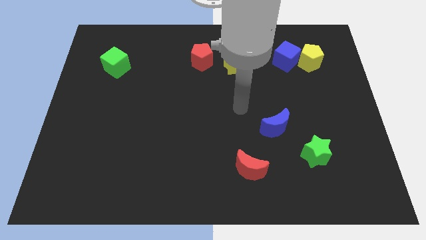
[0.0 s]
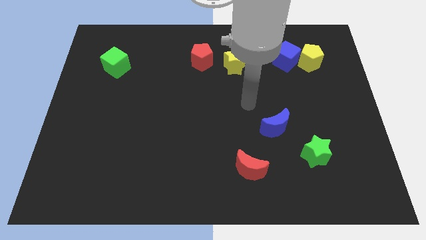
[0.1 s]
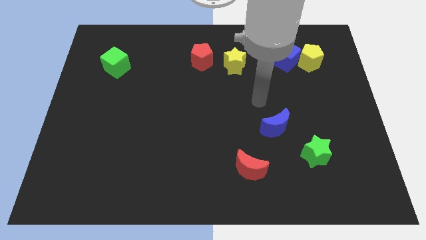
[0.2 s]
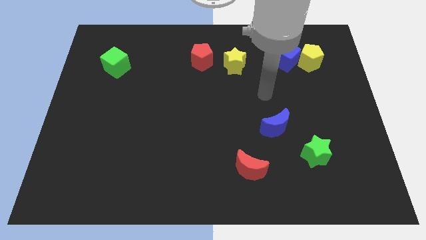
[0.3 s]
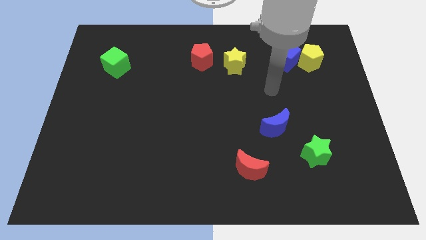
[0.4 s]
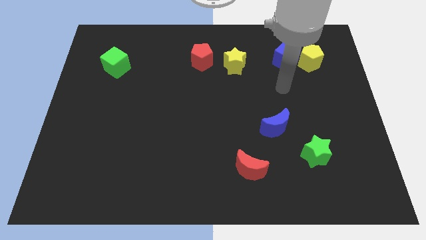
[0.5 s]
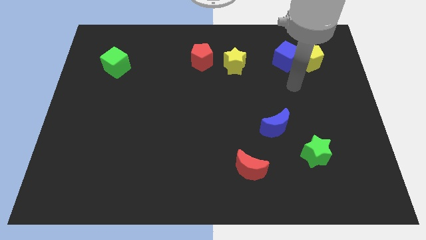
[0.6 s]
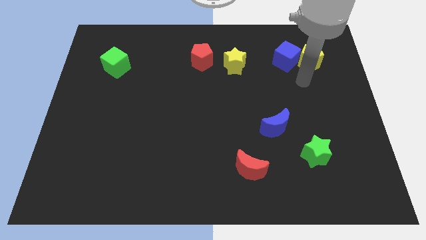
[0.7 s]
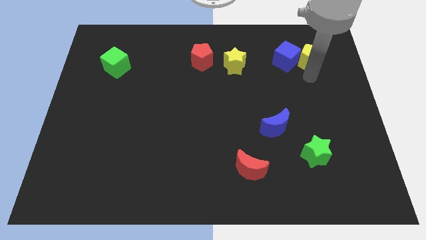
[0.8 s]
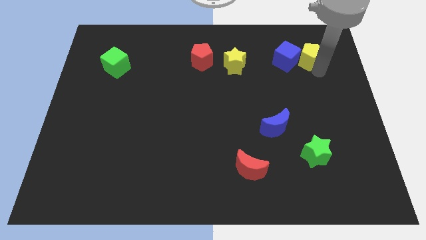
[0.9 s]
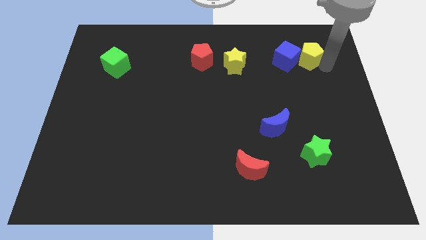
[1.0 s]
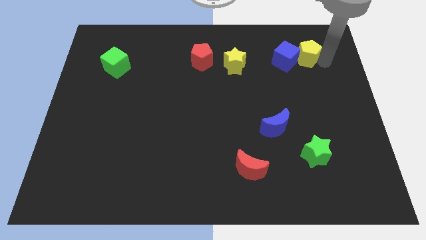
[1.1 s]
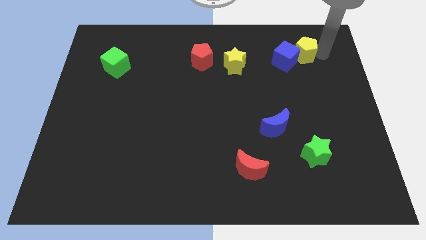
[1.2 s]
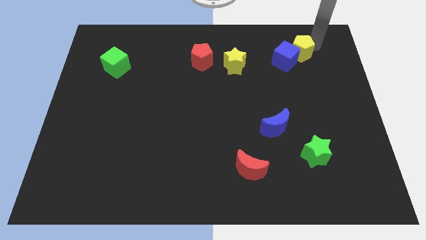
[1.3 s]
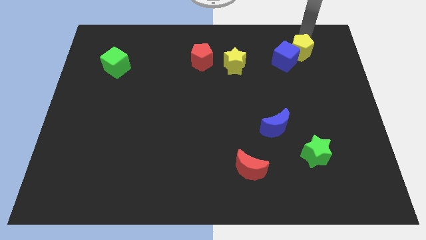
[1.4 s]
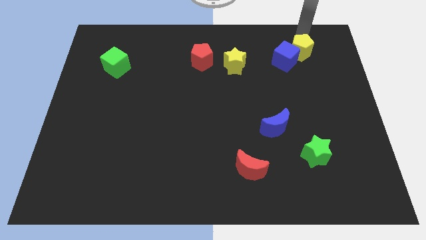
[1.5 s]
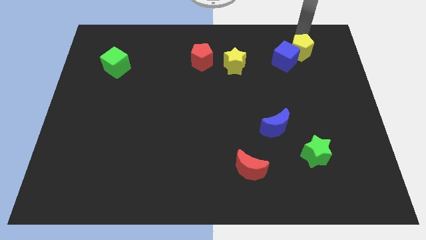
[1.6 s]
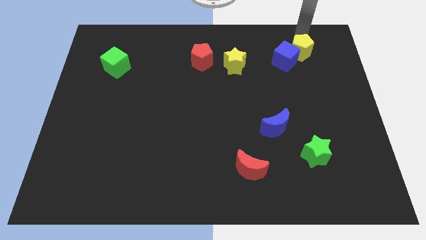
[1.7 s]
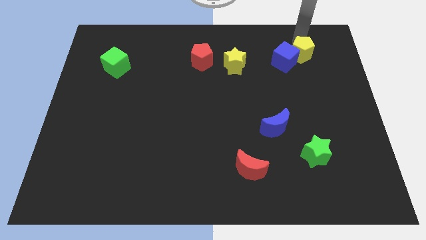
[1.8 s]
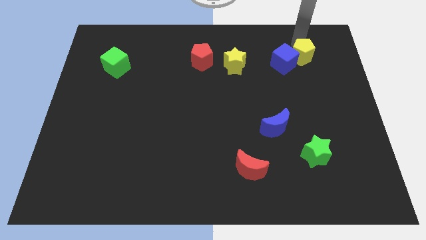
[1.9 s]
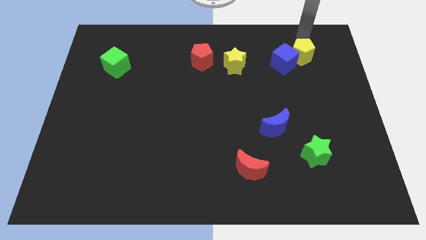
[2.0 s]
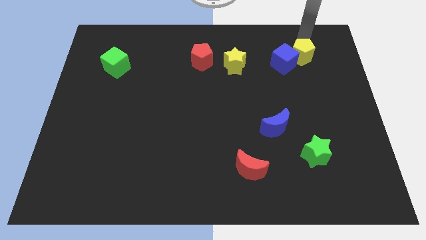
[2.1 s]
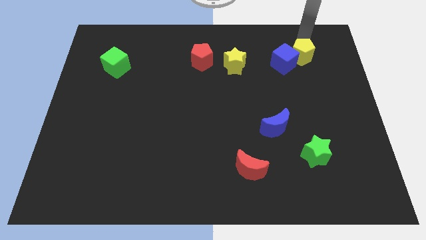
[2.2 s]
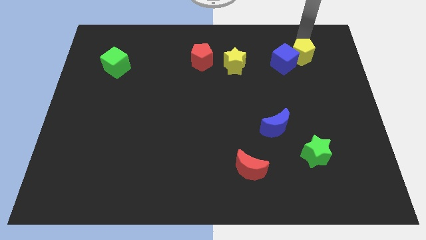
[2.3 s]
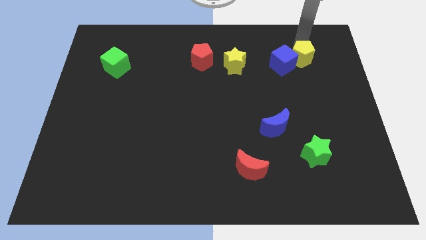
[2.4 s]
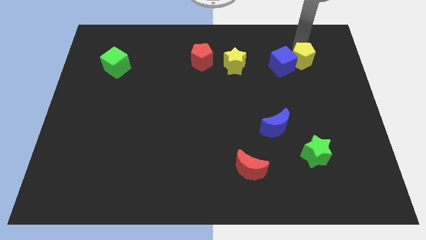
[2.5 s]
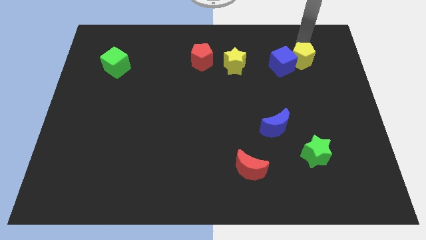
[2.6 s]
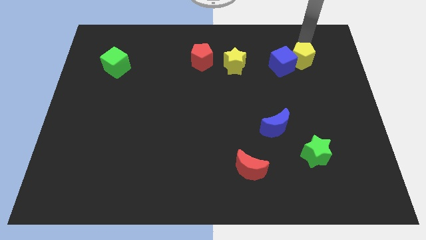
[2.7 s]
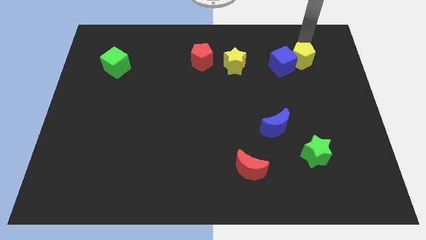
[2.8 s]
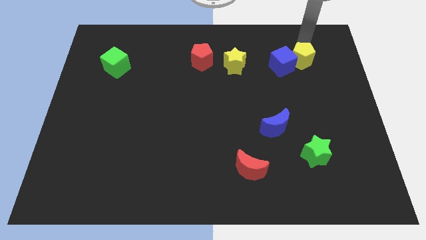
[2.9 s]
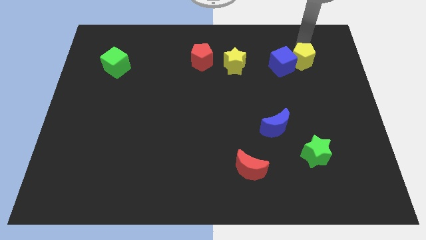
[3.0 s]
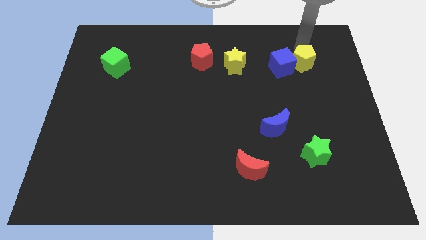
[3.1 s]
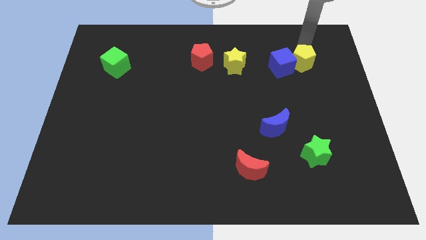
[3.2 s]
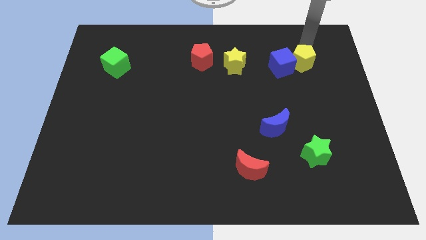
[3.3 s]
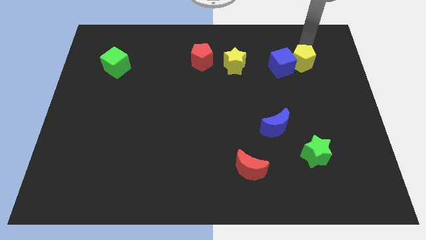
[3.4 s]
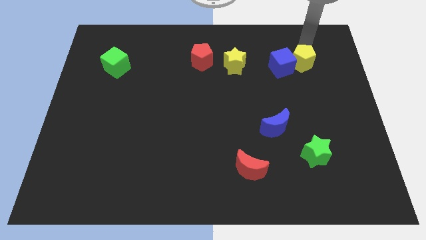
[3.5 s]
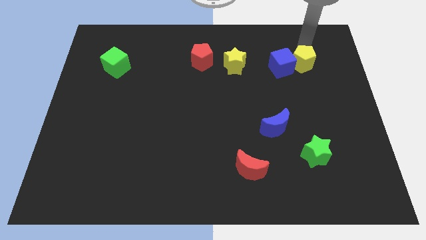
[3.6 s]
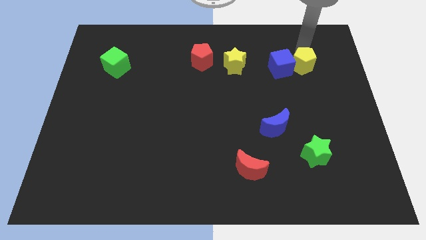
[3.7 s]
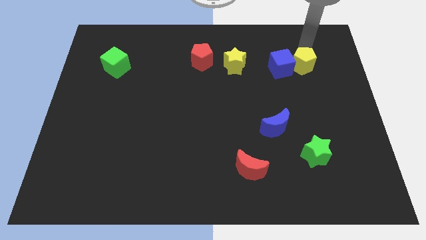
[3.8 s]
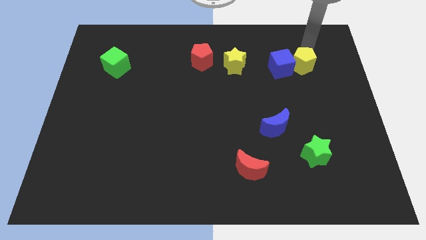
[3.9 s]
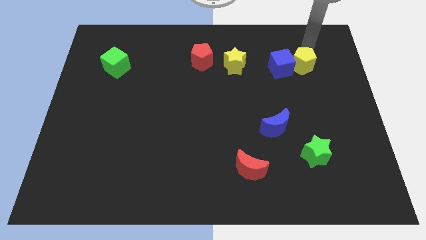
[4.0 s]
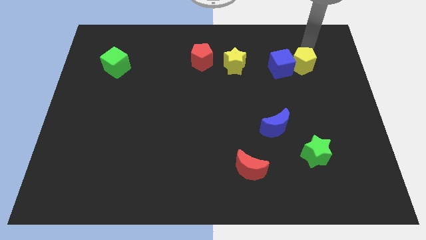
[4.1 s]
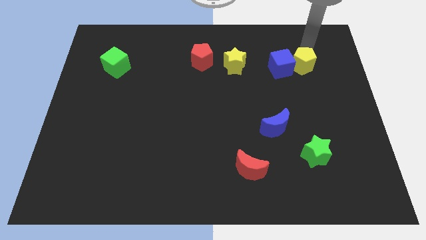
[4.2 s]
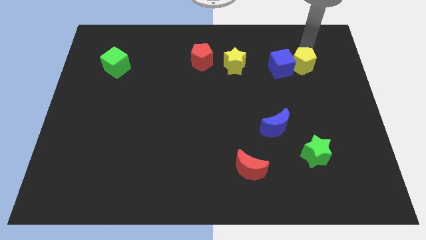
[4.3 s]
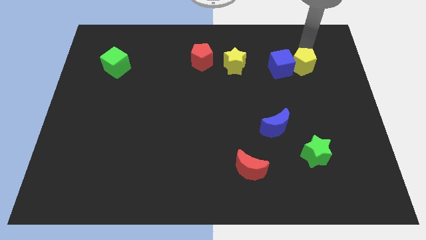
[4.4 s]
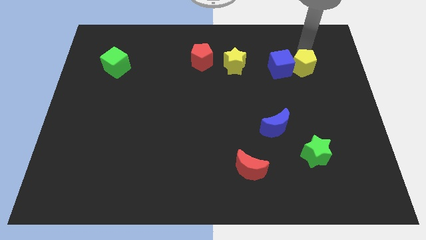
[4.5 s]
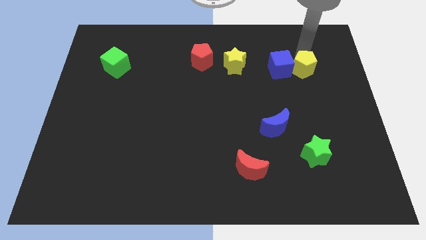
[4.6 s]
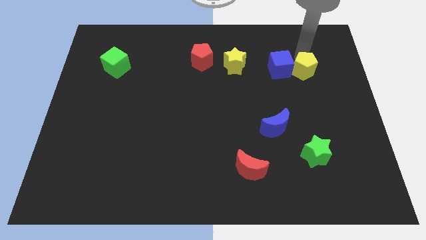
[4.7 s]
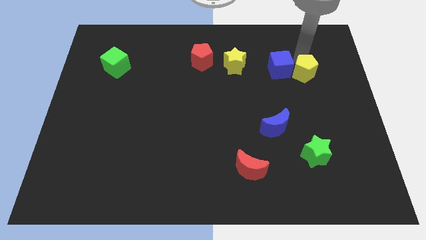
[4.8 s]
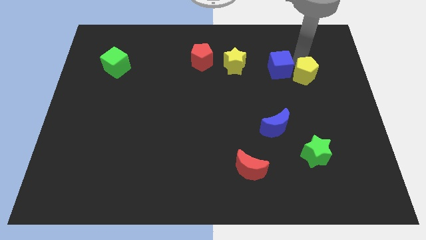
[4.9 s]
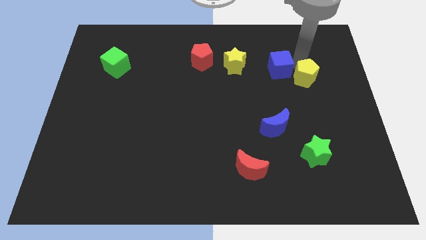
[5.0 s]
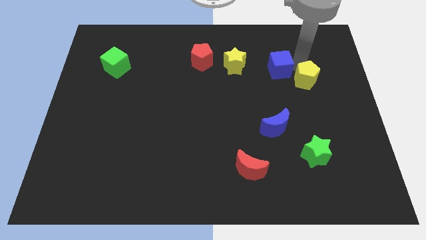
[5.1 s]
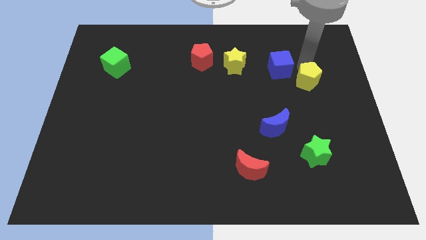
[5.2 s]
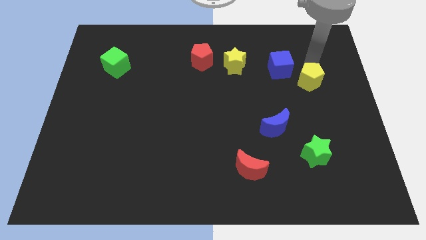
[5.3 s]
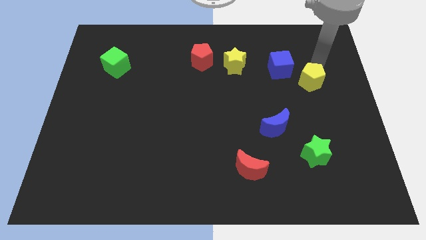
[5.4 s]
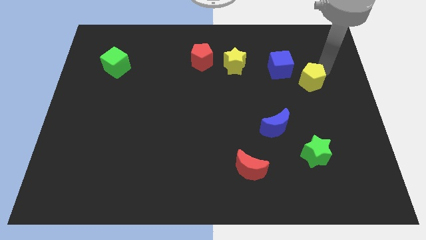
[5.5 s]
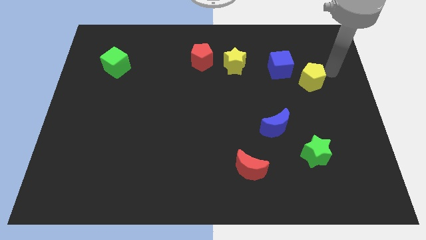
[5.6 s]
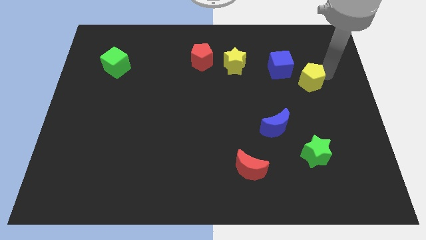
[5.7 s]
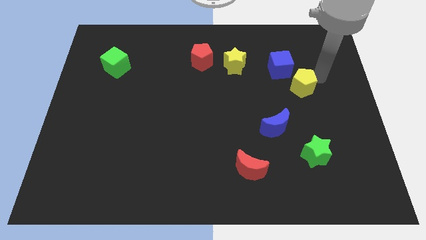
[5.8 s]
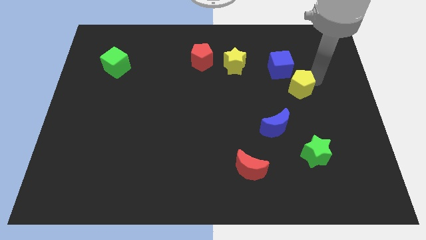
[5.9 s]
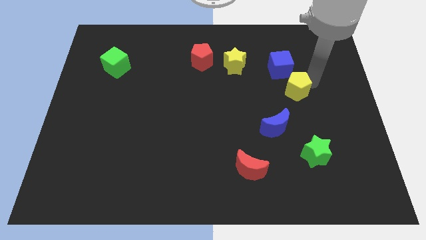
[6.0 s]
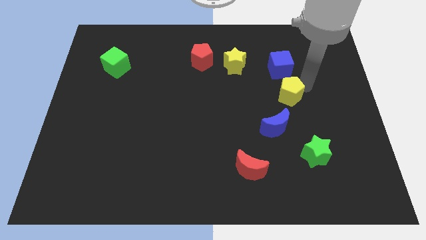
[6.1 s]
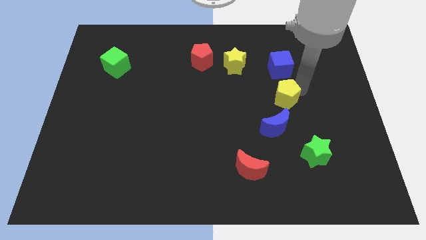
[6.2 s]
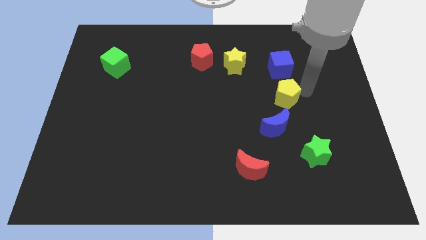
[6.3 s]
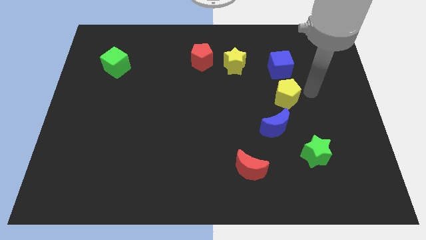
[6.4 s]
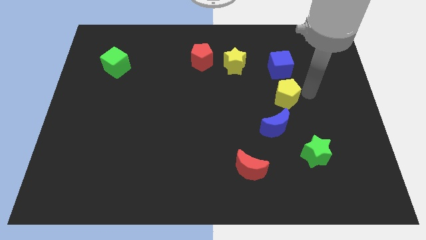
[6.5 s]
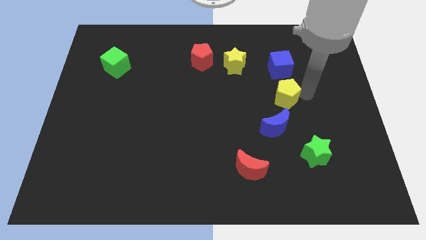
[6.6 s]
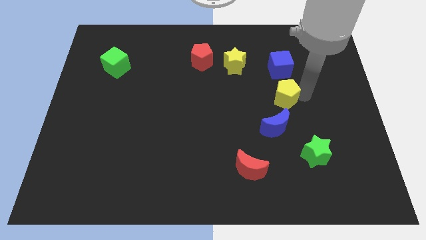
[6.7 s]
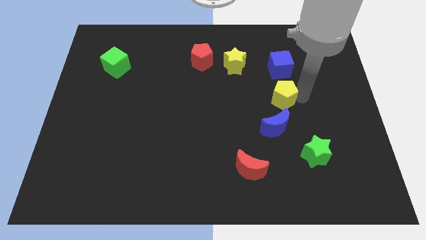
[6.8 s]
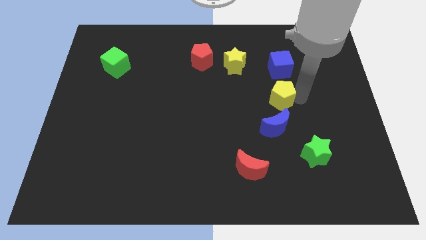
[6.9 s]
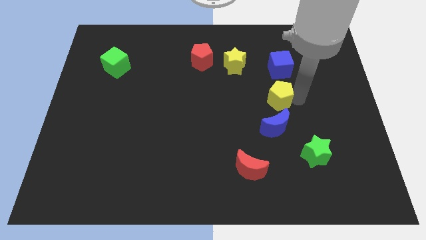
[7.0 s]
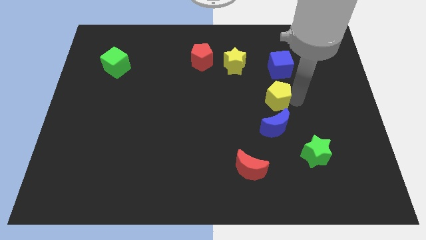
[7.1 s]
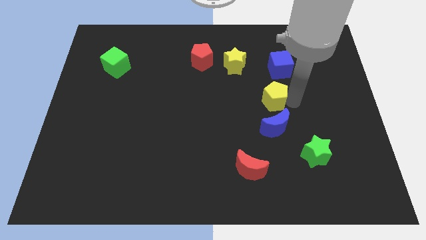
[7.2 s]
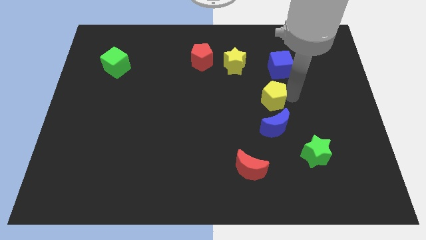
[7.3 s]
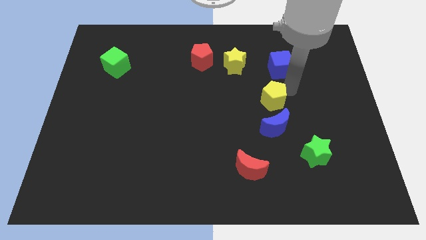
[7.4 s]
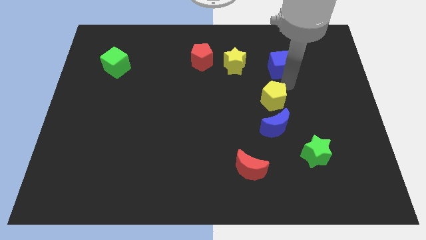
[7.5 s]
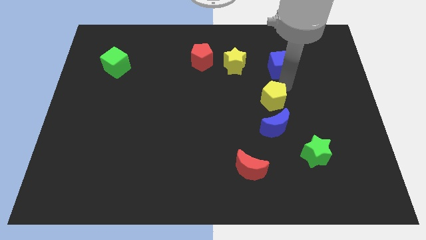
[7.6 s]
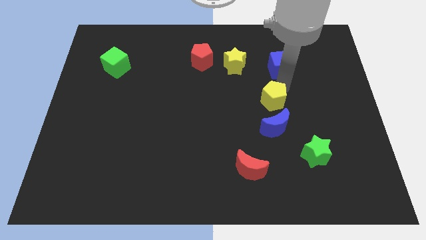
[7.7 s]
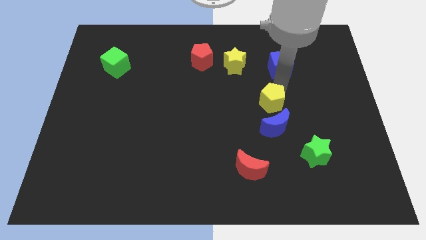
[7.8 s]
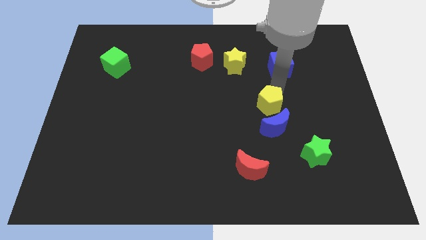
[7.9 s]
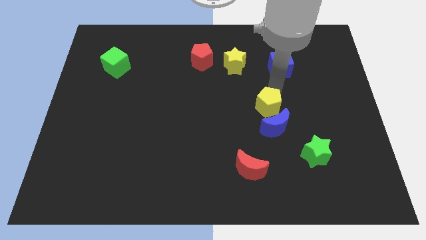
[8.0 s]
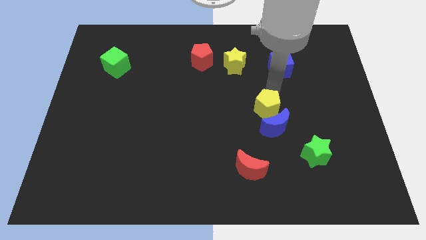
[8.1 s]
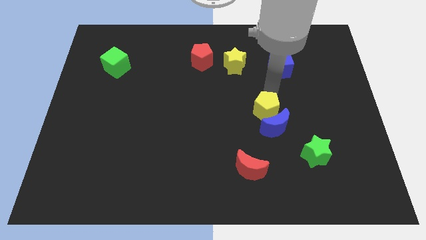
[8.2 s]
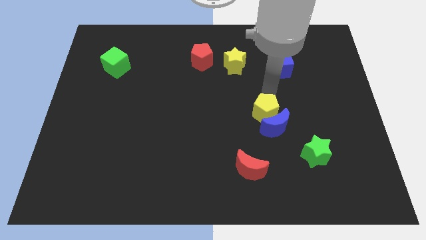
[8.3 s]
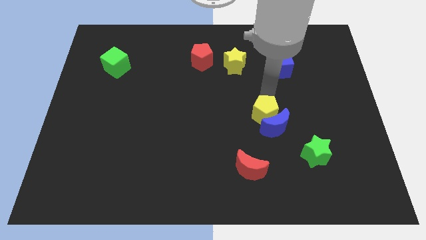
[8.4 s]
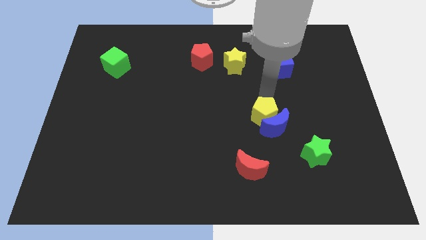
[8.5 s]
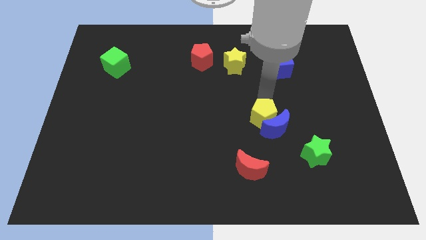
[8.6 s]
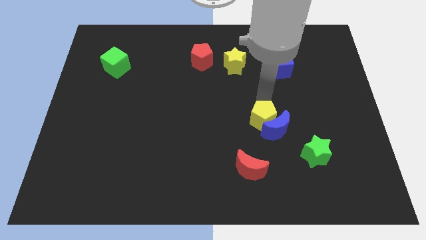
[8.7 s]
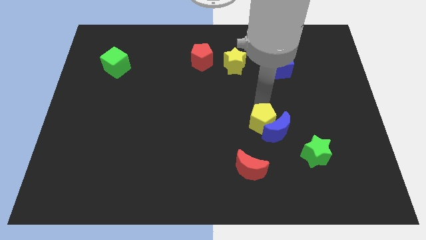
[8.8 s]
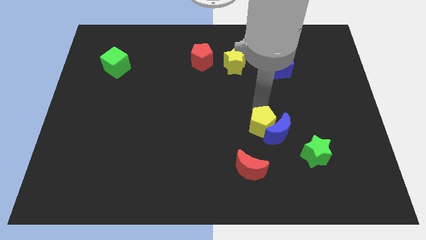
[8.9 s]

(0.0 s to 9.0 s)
push the yellow pentagon diagonally down and to the left of the blue moon
